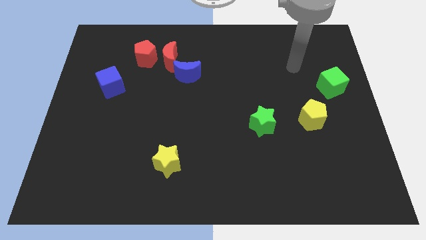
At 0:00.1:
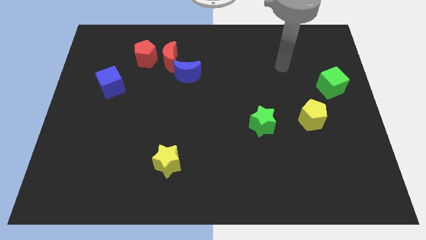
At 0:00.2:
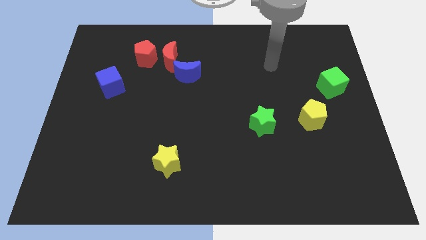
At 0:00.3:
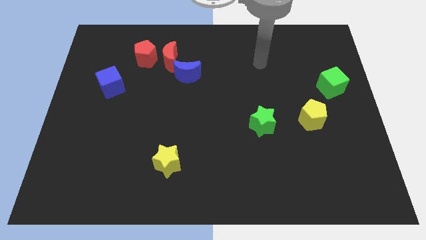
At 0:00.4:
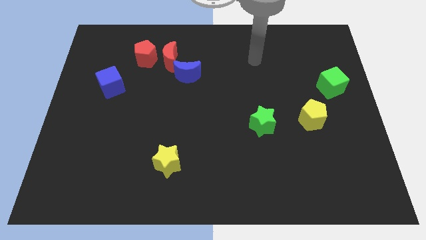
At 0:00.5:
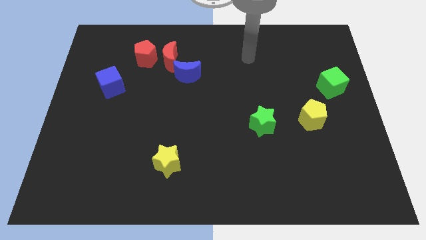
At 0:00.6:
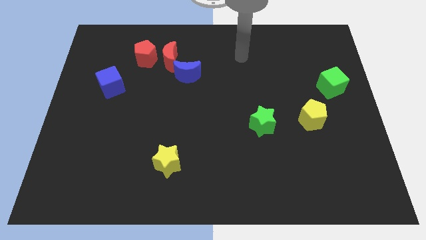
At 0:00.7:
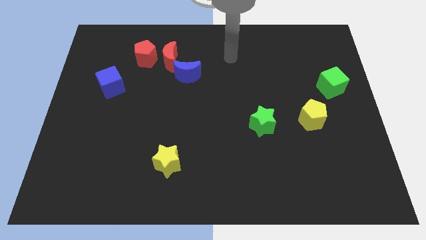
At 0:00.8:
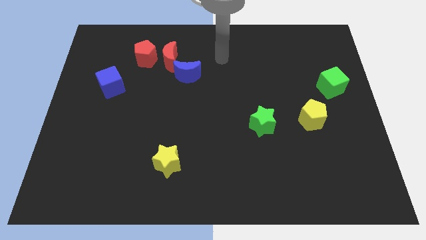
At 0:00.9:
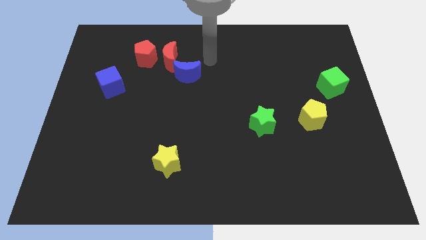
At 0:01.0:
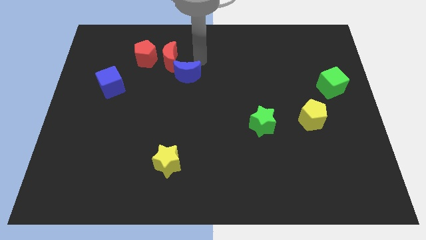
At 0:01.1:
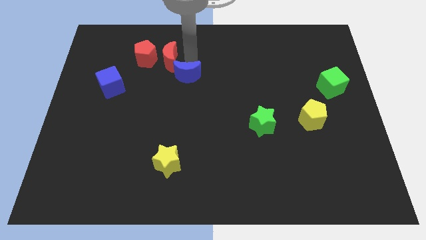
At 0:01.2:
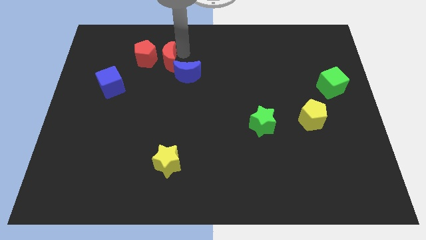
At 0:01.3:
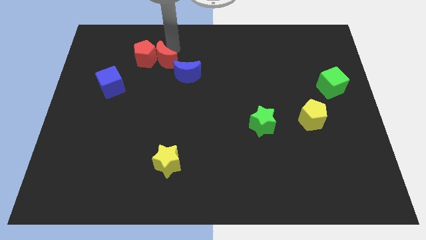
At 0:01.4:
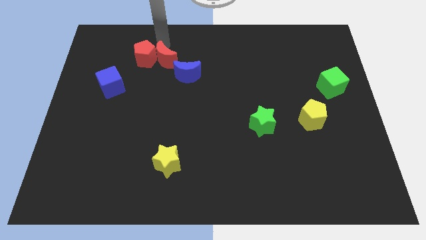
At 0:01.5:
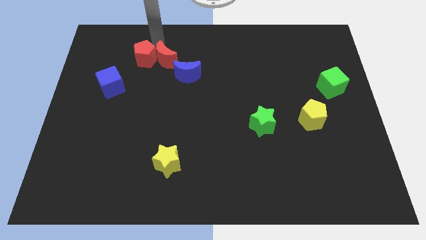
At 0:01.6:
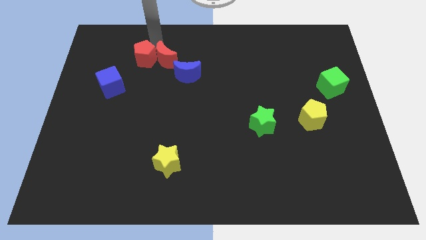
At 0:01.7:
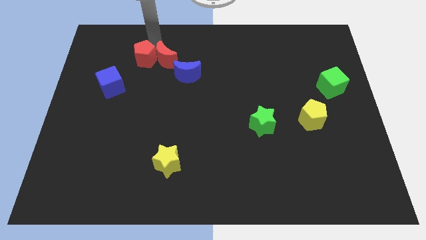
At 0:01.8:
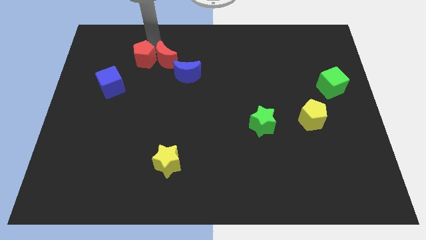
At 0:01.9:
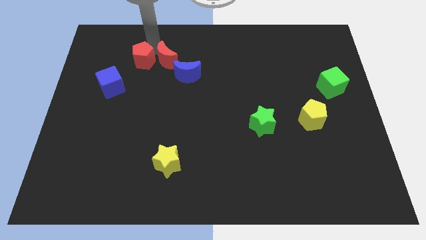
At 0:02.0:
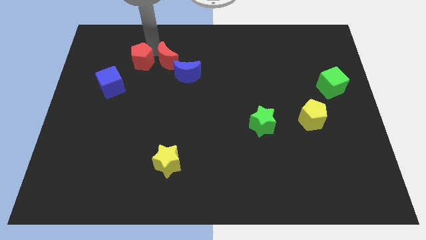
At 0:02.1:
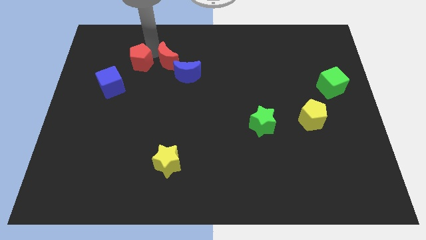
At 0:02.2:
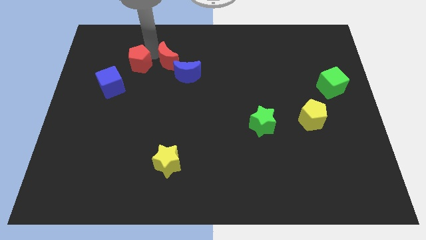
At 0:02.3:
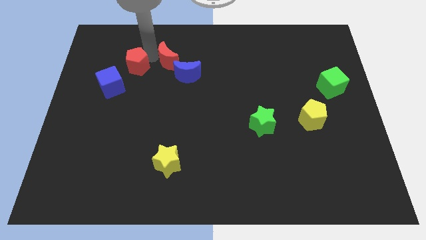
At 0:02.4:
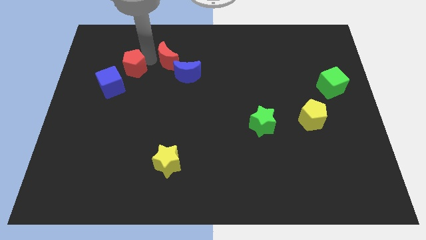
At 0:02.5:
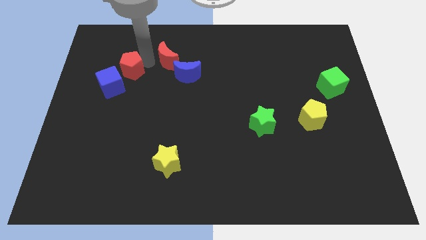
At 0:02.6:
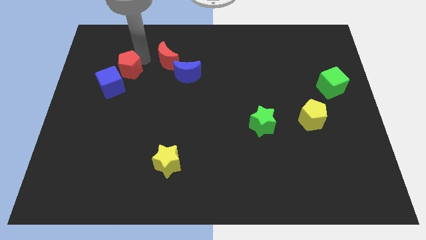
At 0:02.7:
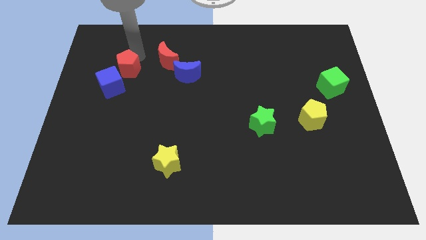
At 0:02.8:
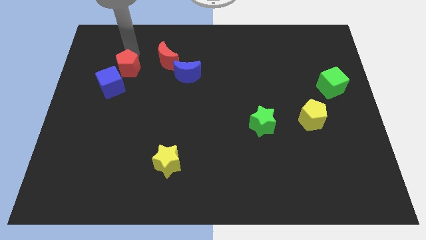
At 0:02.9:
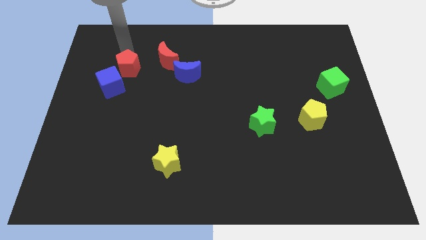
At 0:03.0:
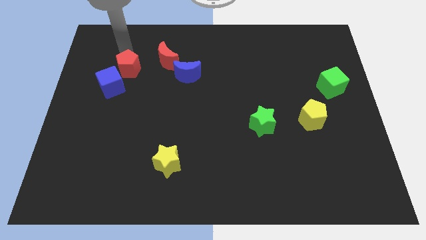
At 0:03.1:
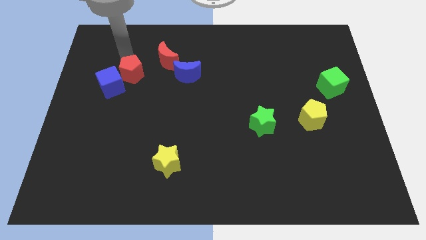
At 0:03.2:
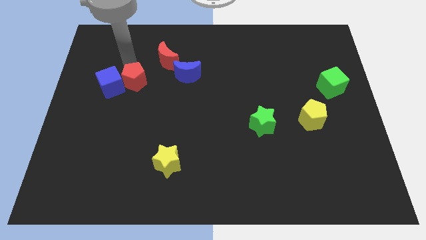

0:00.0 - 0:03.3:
move the red pentagon downwards a bit

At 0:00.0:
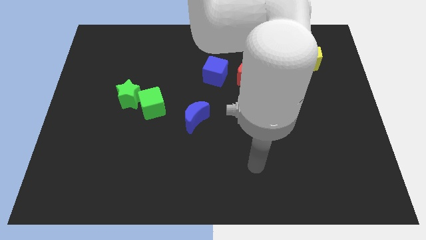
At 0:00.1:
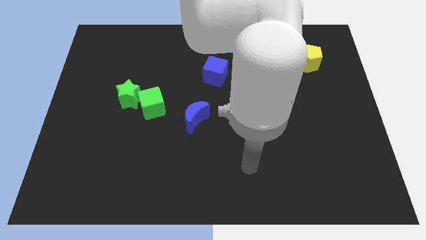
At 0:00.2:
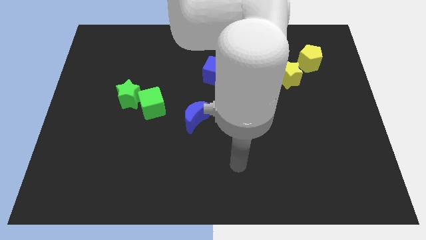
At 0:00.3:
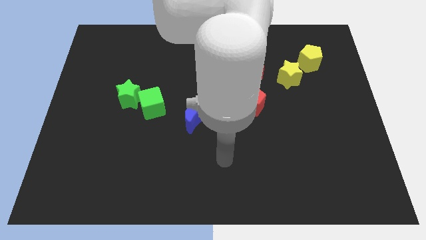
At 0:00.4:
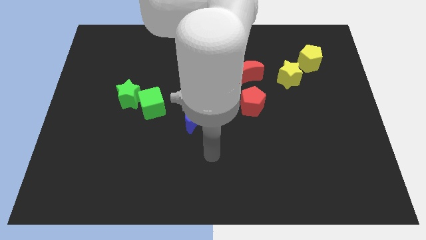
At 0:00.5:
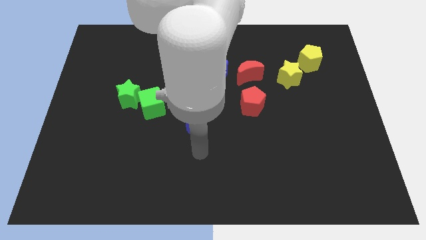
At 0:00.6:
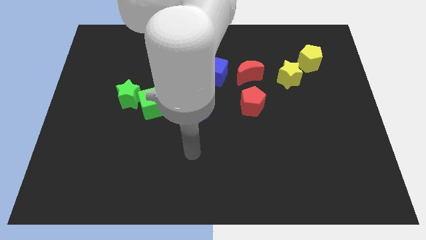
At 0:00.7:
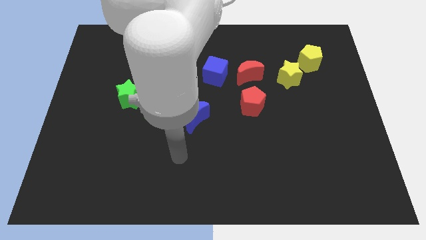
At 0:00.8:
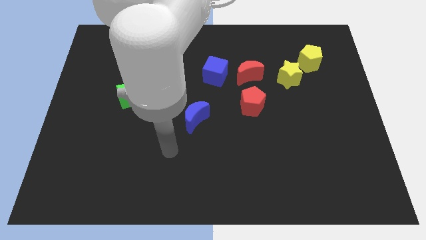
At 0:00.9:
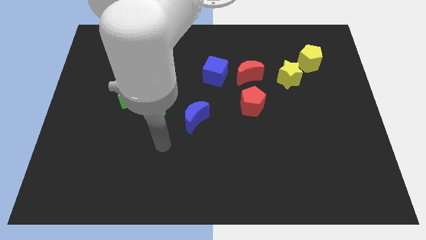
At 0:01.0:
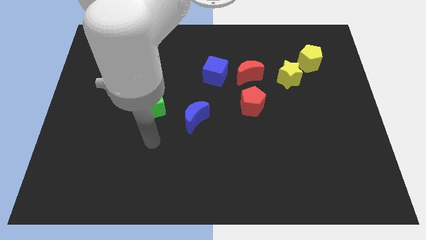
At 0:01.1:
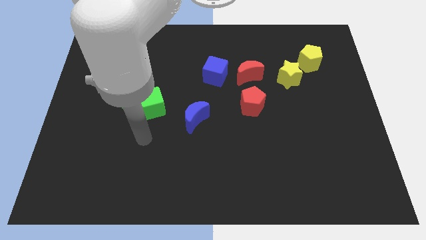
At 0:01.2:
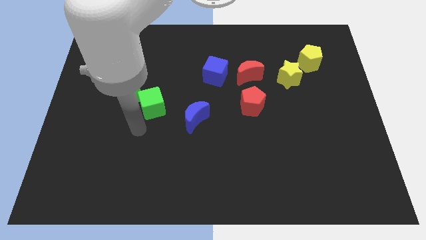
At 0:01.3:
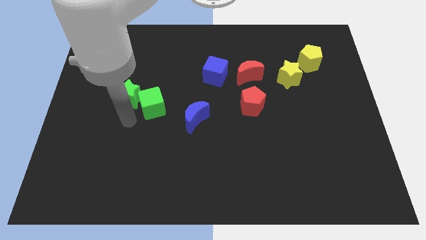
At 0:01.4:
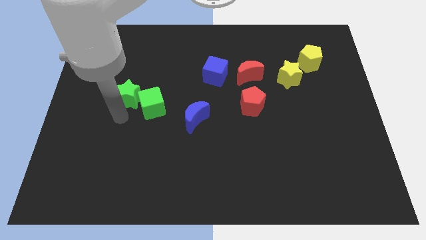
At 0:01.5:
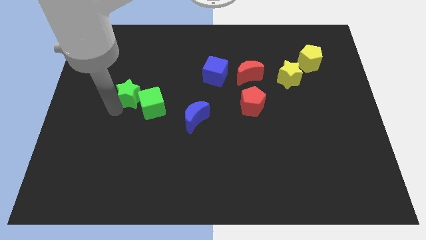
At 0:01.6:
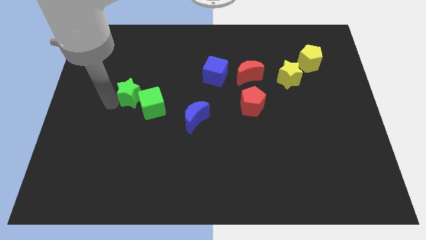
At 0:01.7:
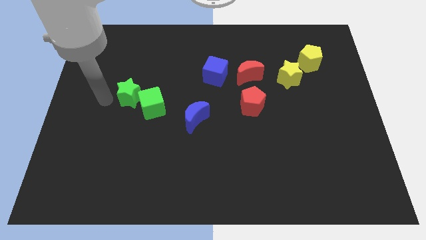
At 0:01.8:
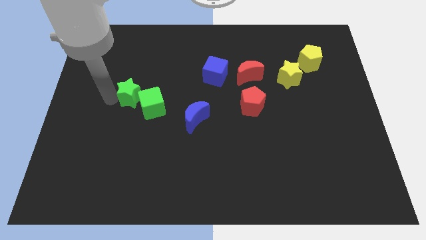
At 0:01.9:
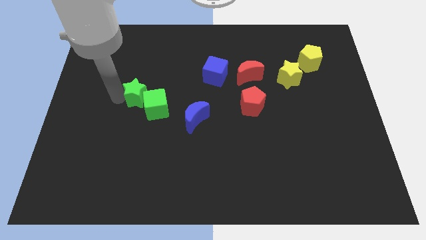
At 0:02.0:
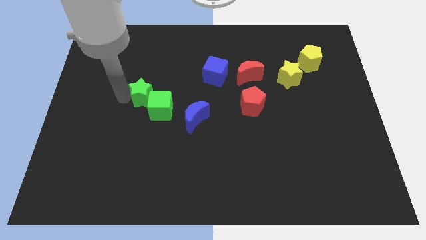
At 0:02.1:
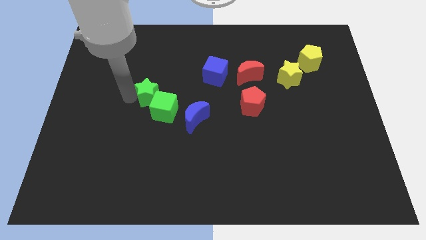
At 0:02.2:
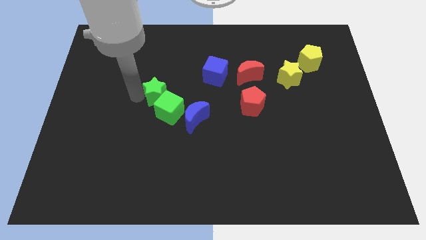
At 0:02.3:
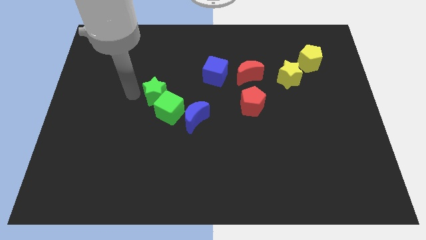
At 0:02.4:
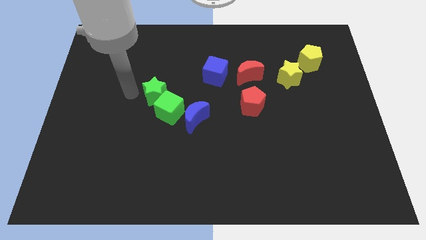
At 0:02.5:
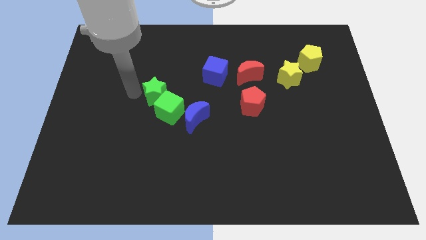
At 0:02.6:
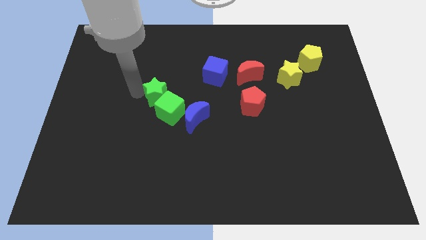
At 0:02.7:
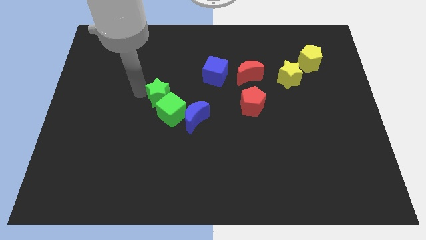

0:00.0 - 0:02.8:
push the green star right a little bit

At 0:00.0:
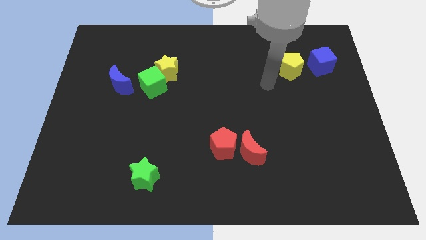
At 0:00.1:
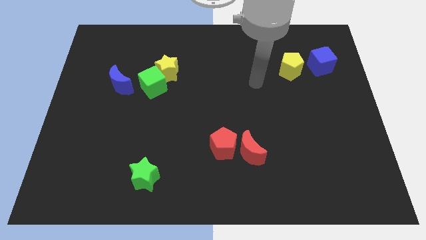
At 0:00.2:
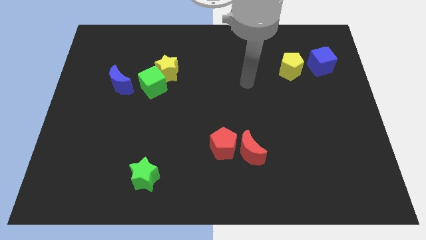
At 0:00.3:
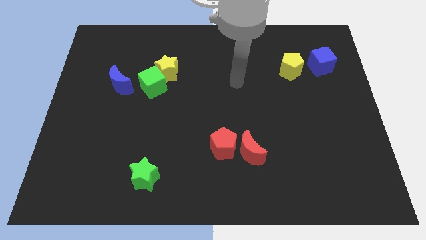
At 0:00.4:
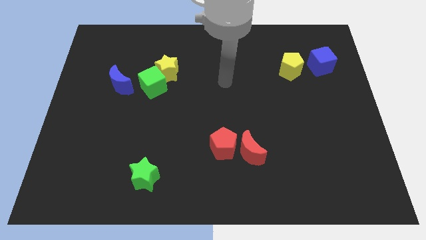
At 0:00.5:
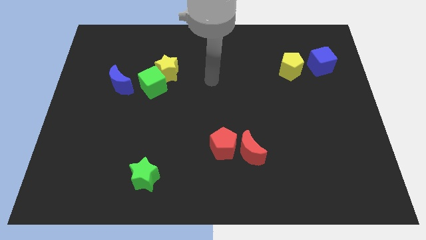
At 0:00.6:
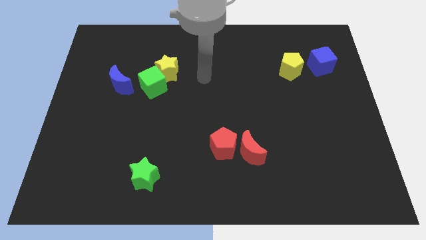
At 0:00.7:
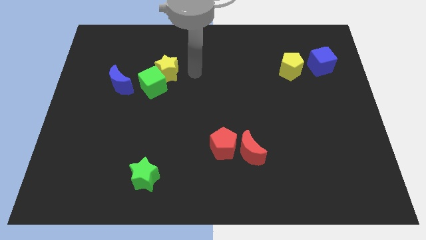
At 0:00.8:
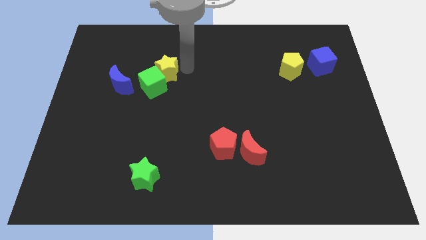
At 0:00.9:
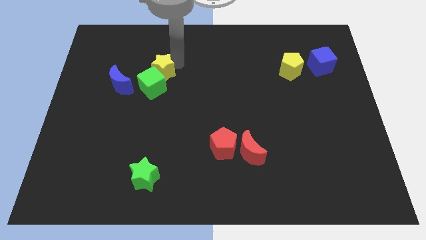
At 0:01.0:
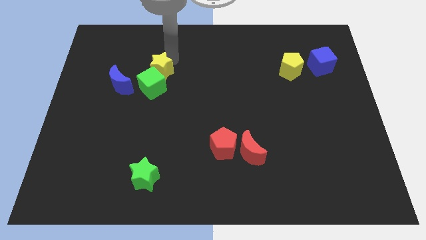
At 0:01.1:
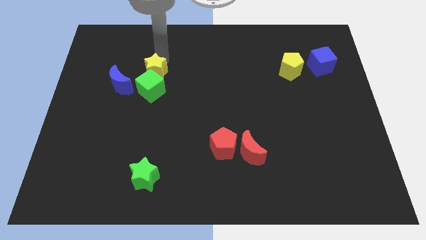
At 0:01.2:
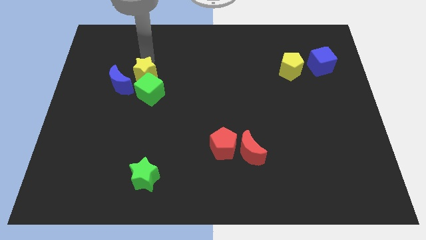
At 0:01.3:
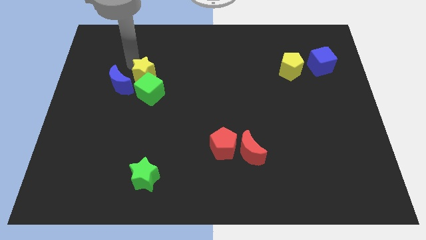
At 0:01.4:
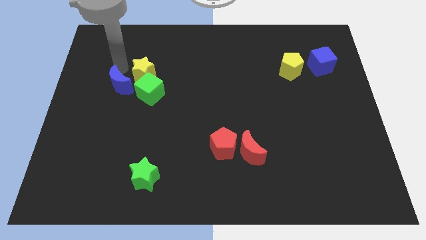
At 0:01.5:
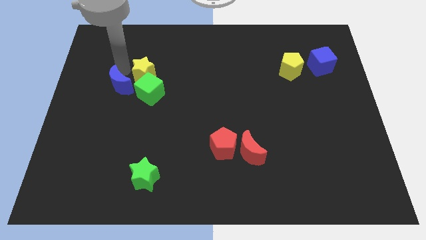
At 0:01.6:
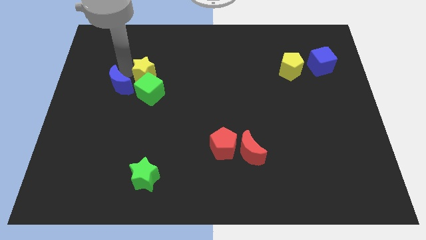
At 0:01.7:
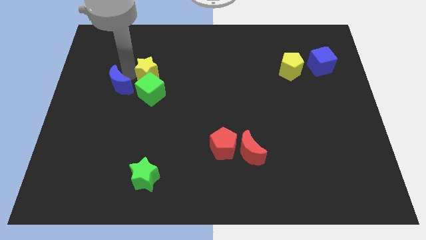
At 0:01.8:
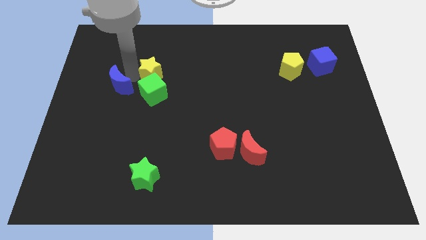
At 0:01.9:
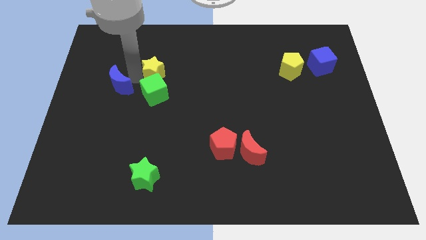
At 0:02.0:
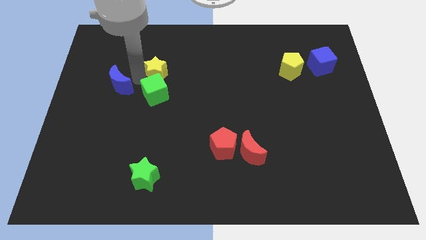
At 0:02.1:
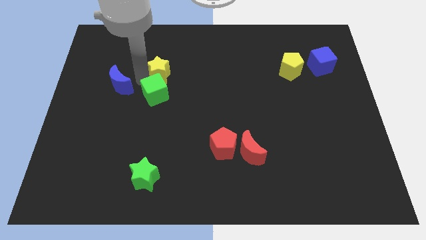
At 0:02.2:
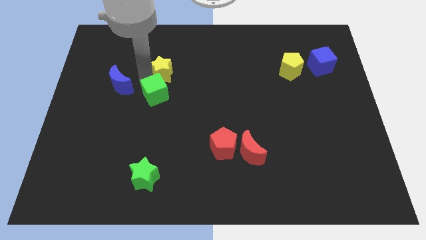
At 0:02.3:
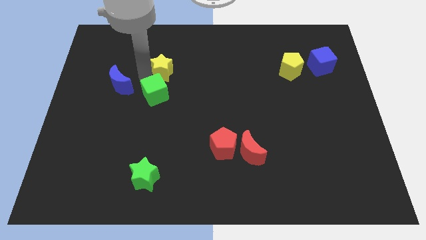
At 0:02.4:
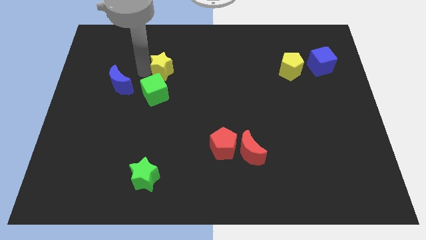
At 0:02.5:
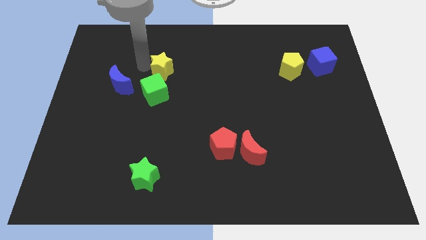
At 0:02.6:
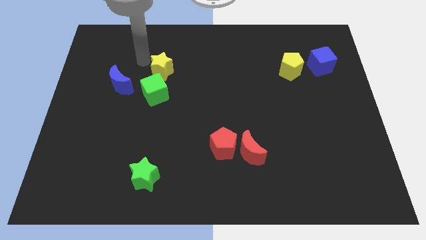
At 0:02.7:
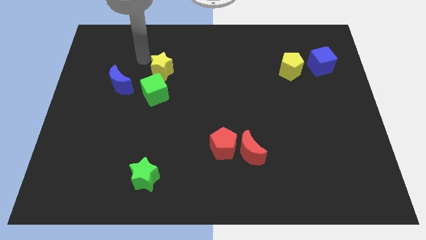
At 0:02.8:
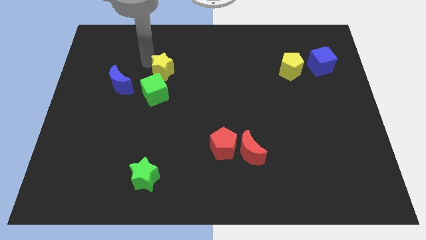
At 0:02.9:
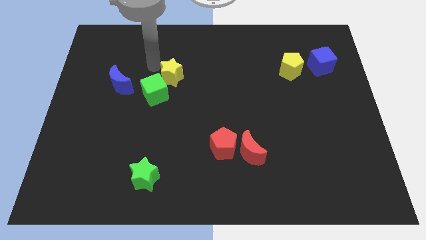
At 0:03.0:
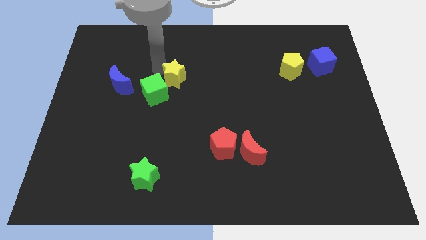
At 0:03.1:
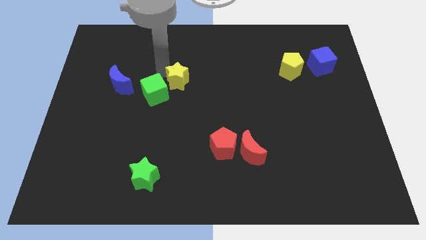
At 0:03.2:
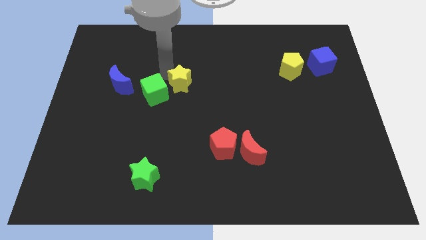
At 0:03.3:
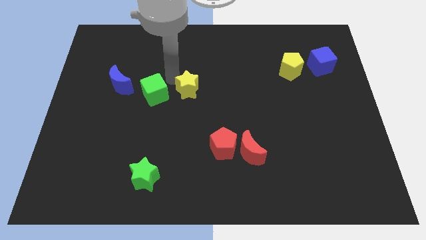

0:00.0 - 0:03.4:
slightly push the yellow star downwards and to the right diagonally
